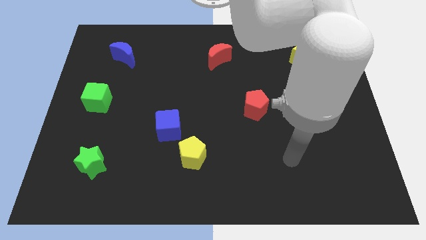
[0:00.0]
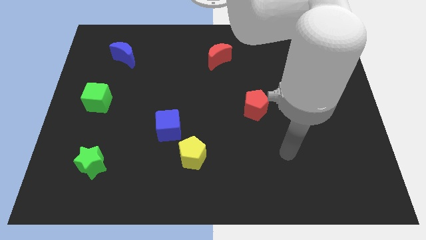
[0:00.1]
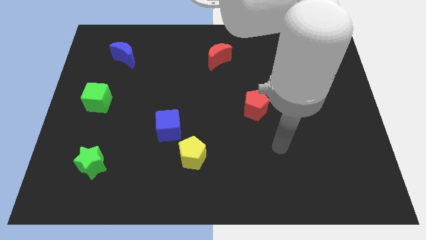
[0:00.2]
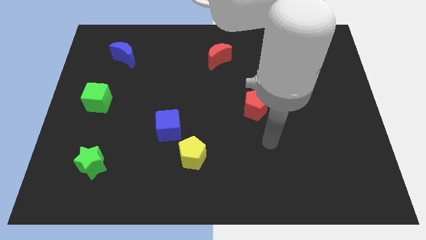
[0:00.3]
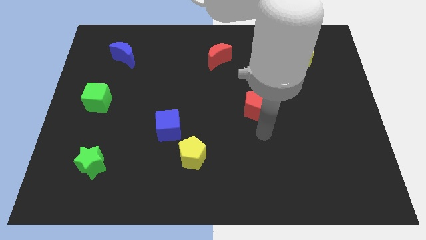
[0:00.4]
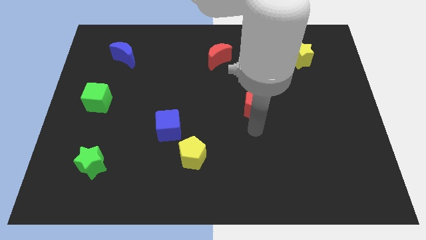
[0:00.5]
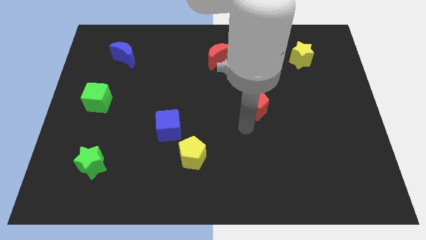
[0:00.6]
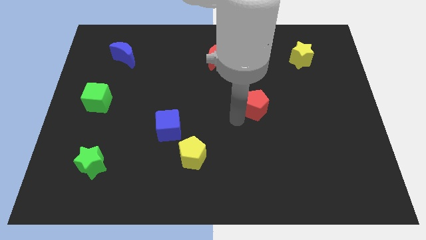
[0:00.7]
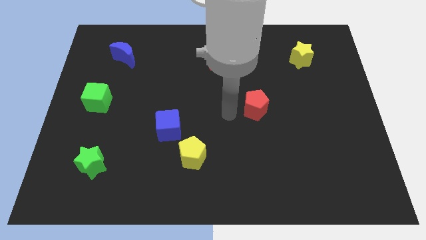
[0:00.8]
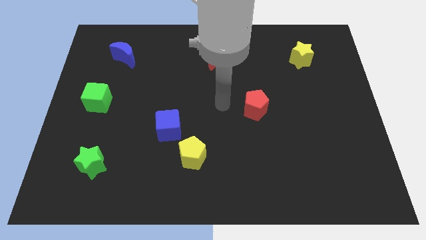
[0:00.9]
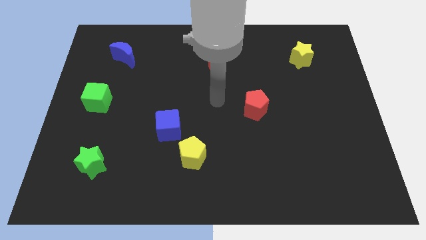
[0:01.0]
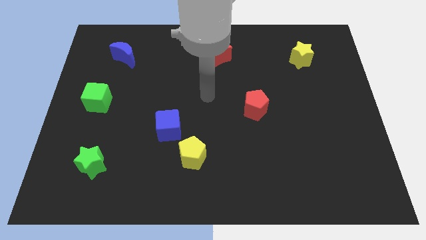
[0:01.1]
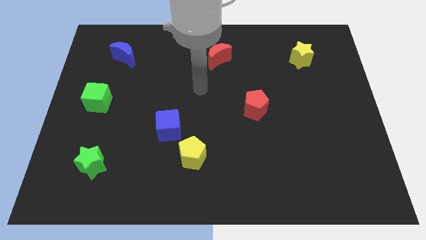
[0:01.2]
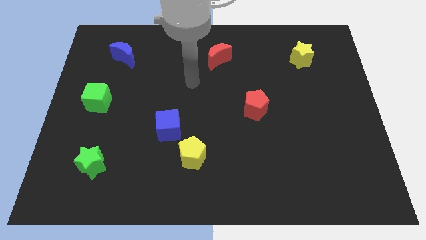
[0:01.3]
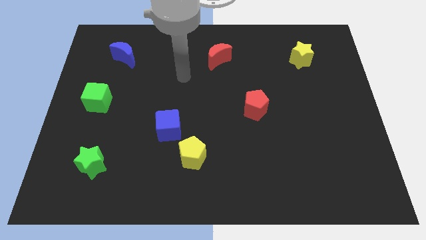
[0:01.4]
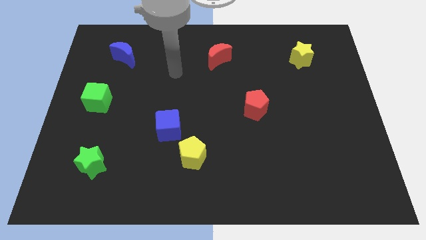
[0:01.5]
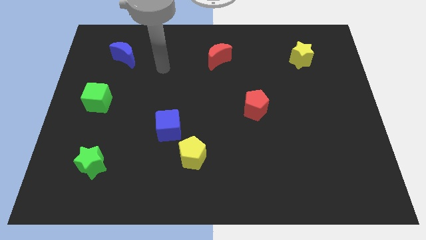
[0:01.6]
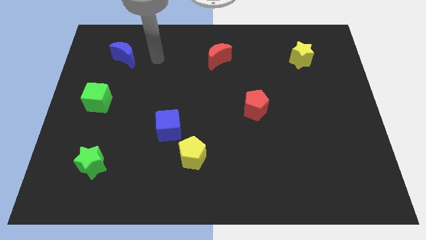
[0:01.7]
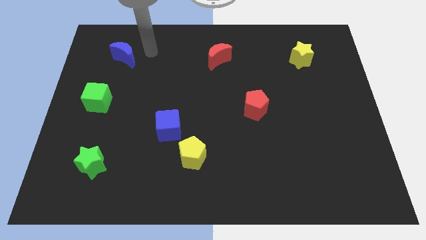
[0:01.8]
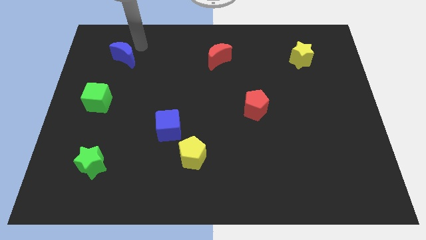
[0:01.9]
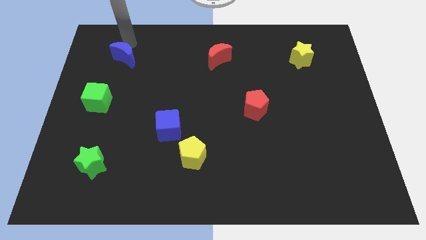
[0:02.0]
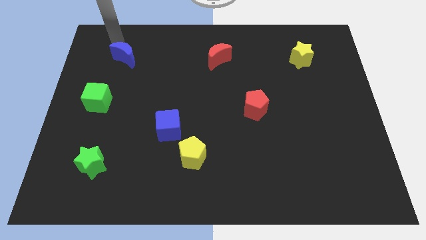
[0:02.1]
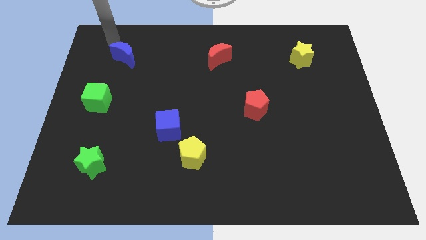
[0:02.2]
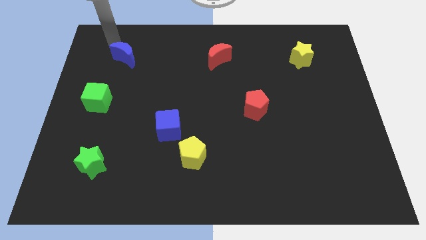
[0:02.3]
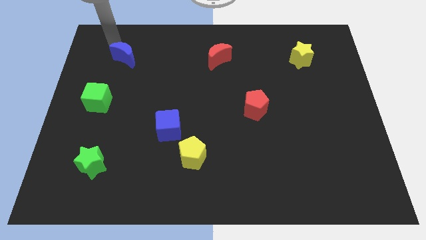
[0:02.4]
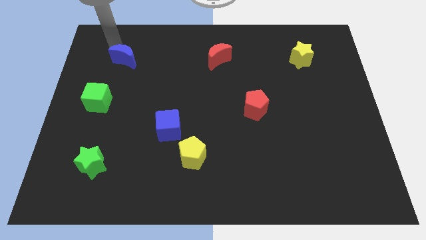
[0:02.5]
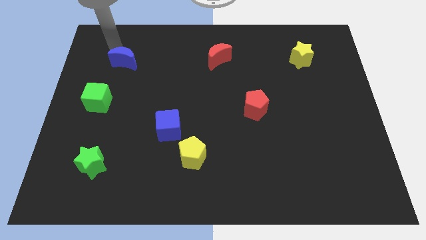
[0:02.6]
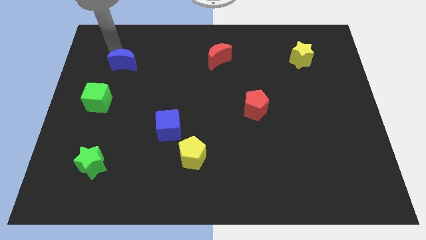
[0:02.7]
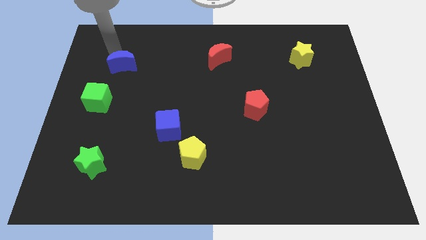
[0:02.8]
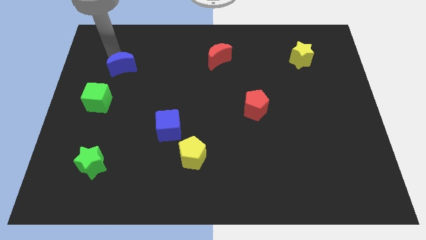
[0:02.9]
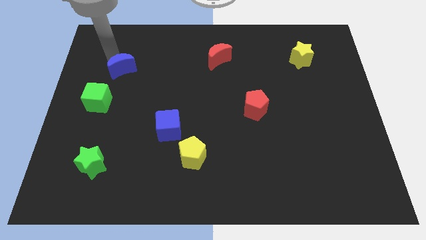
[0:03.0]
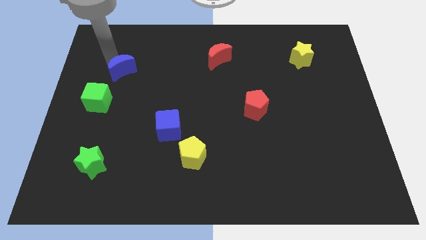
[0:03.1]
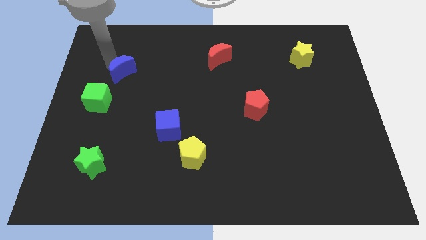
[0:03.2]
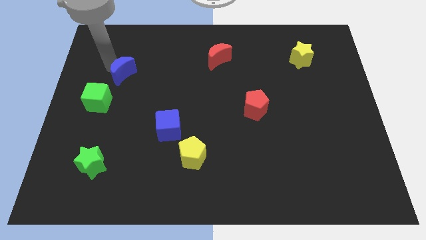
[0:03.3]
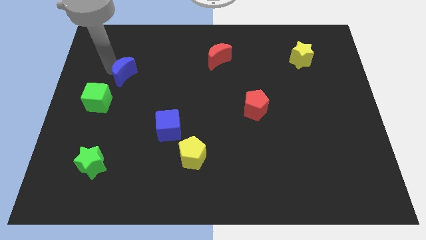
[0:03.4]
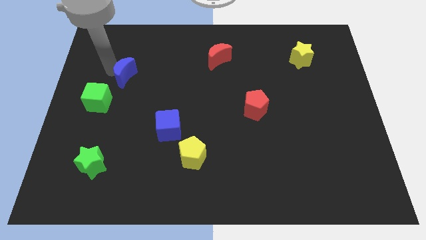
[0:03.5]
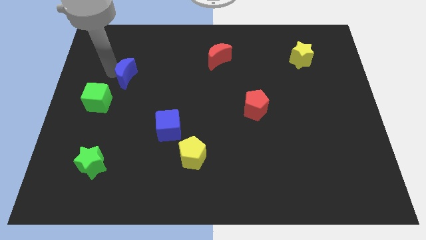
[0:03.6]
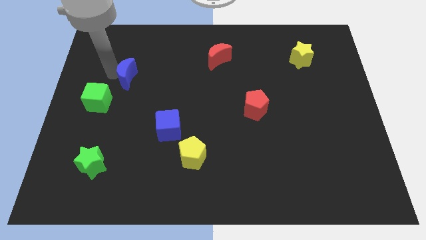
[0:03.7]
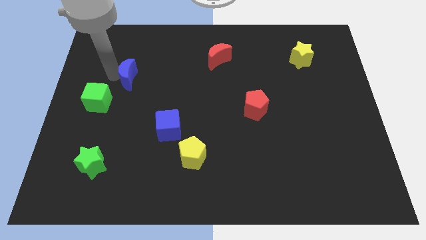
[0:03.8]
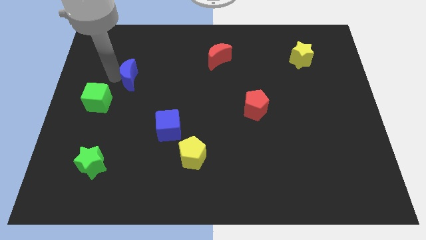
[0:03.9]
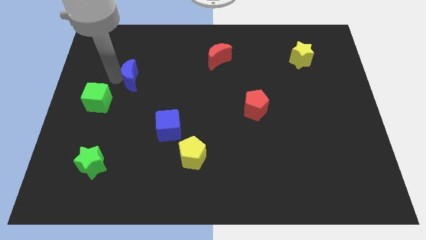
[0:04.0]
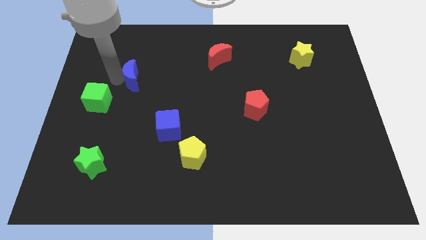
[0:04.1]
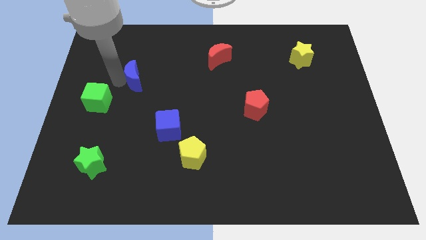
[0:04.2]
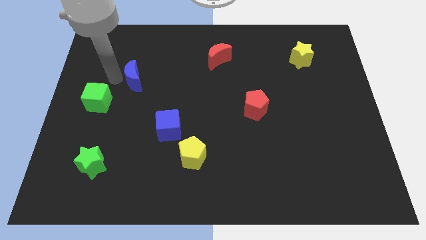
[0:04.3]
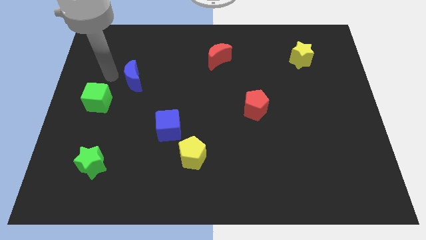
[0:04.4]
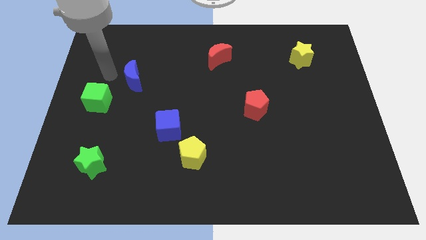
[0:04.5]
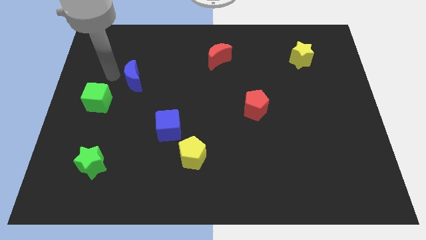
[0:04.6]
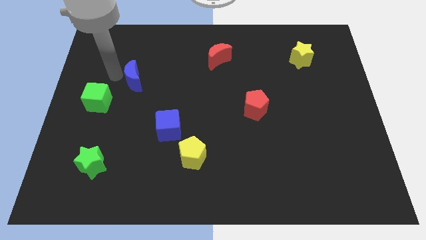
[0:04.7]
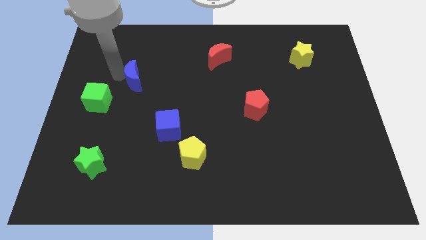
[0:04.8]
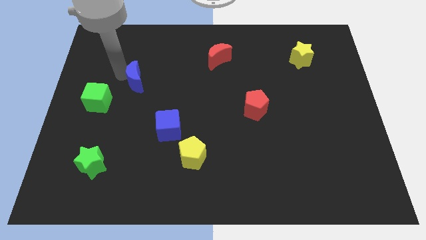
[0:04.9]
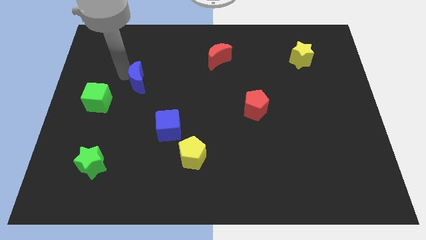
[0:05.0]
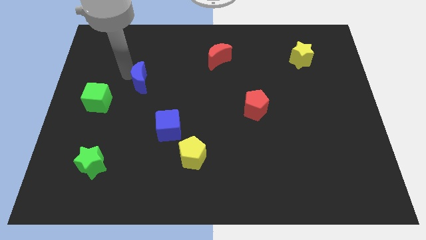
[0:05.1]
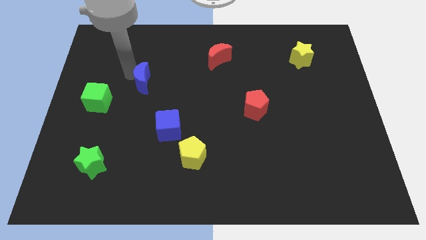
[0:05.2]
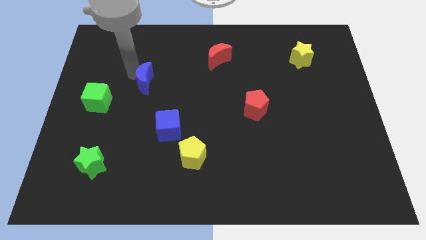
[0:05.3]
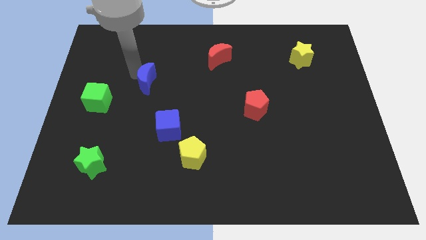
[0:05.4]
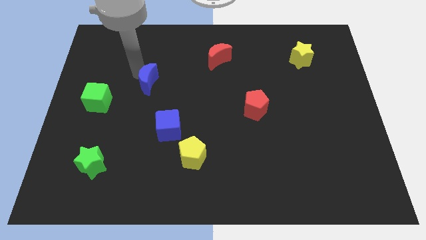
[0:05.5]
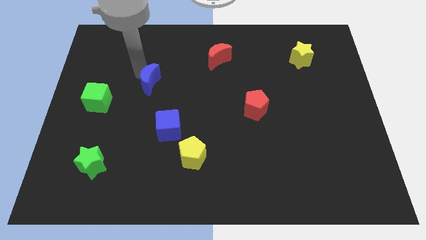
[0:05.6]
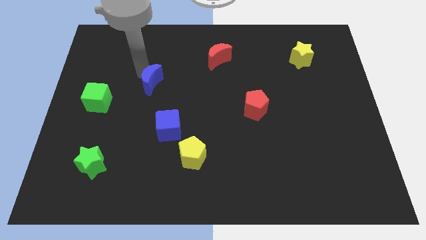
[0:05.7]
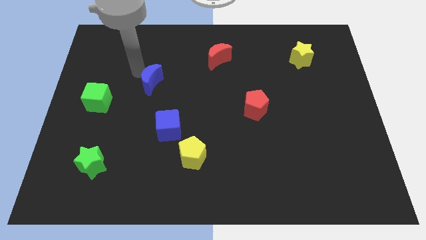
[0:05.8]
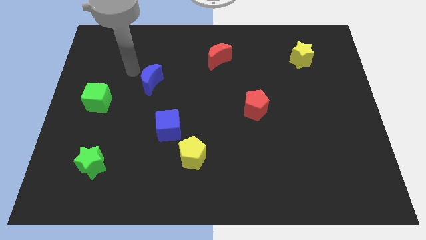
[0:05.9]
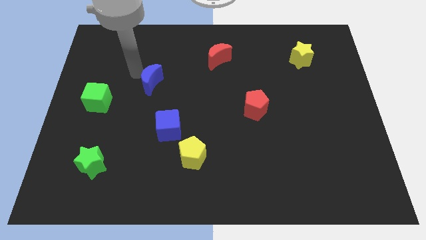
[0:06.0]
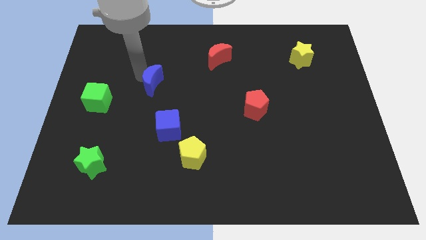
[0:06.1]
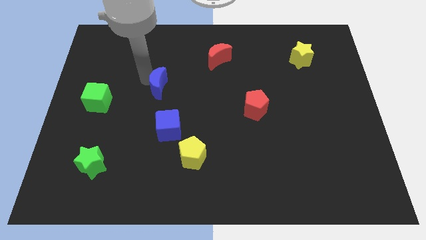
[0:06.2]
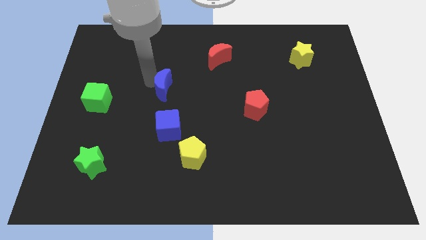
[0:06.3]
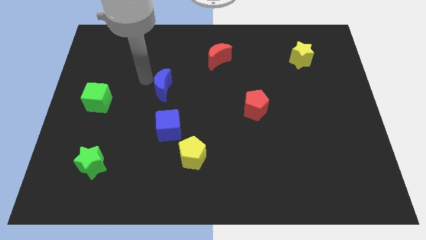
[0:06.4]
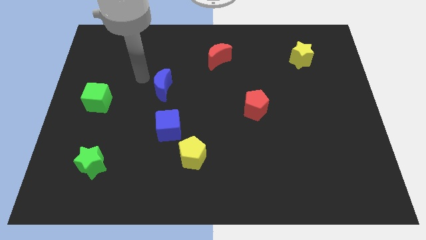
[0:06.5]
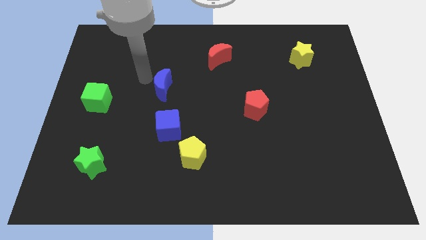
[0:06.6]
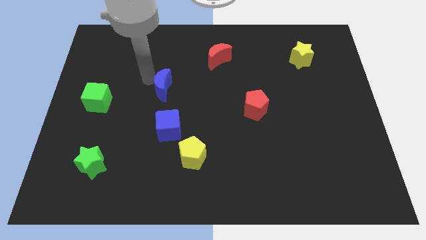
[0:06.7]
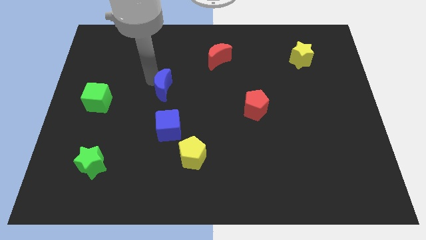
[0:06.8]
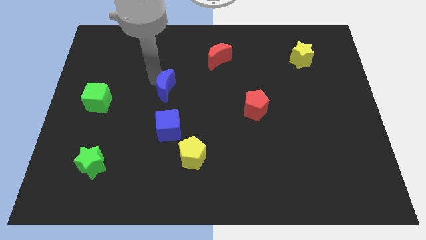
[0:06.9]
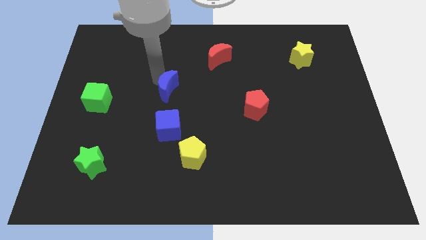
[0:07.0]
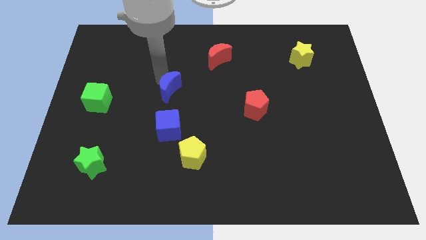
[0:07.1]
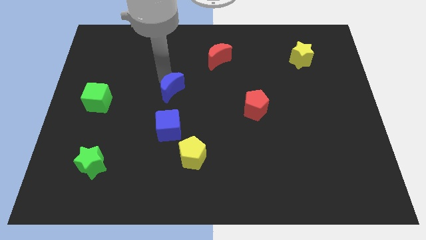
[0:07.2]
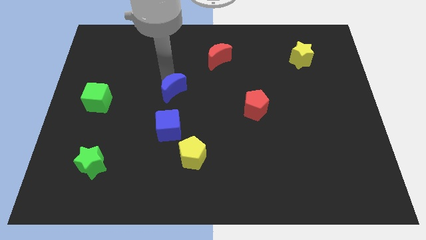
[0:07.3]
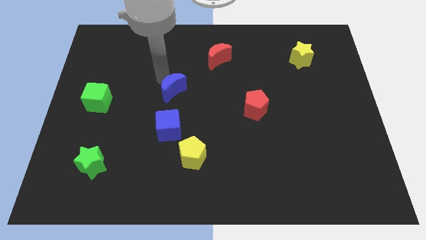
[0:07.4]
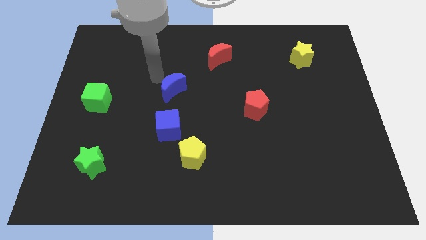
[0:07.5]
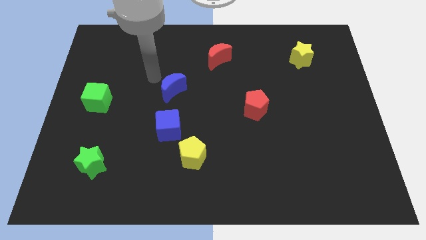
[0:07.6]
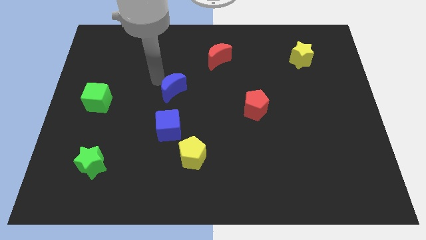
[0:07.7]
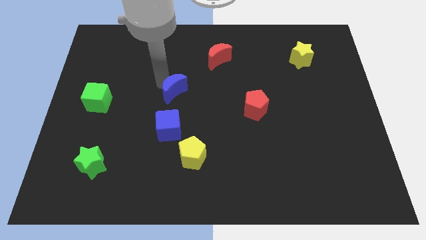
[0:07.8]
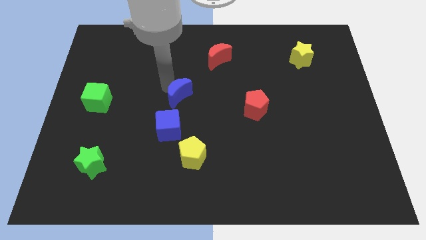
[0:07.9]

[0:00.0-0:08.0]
move the blue moon downwards and right

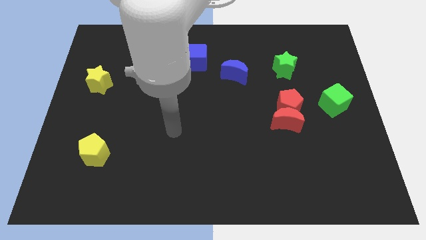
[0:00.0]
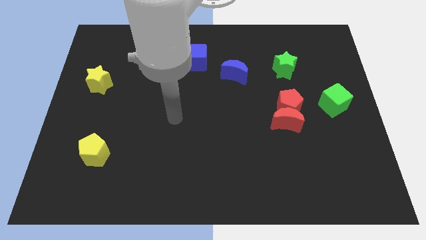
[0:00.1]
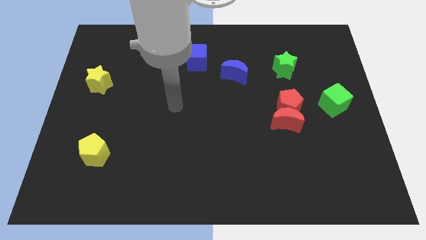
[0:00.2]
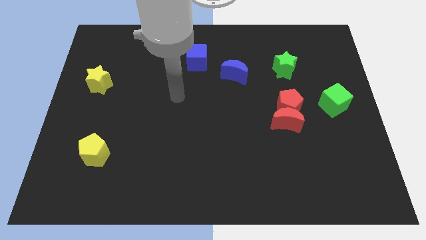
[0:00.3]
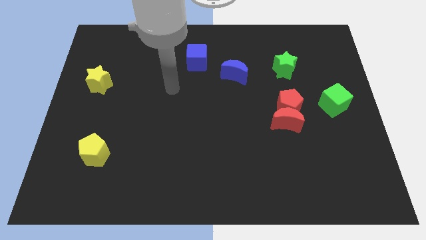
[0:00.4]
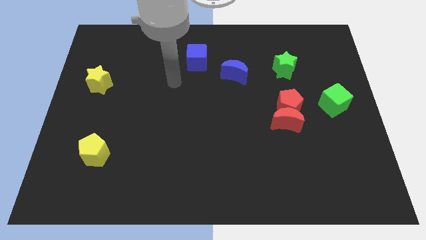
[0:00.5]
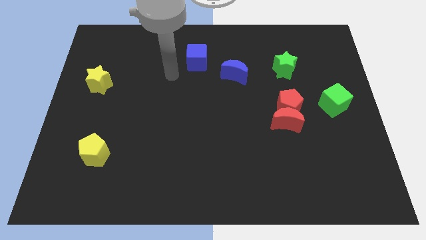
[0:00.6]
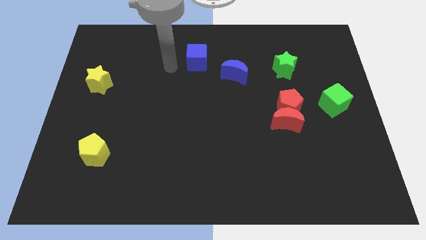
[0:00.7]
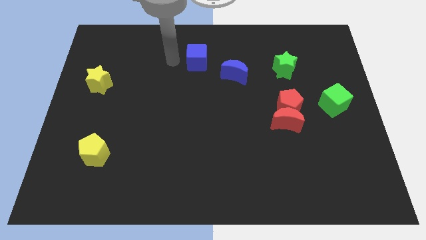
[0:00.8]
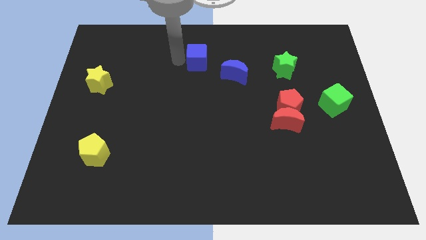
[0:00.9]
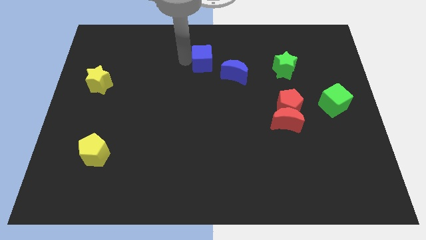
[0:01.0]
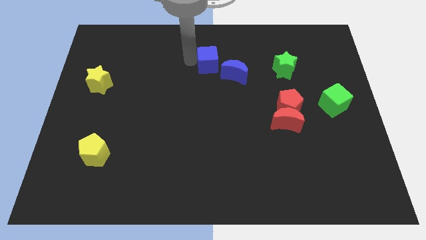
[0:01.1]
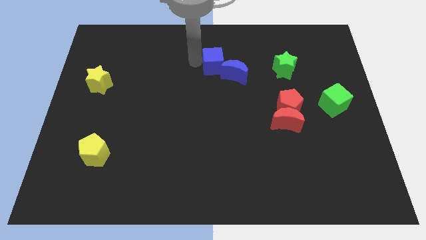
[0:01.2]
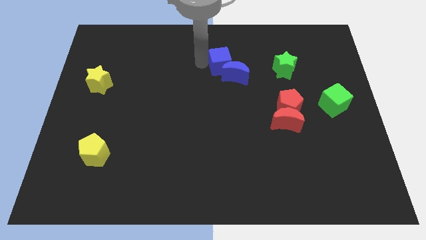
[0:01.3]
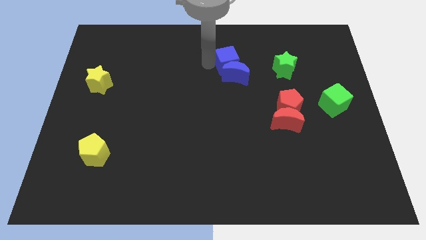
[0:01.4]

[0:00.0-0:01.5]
push the blue cube a little to the right
